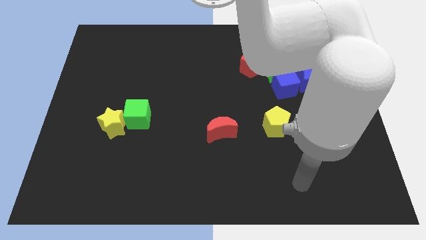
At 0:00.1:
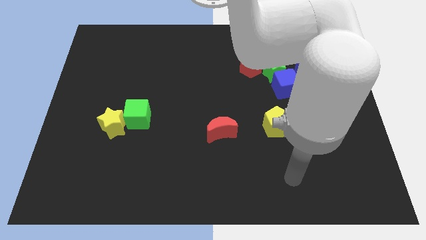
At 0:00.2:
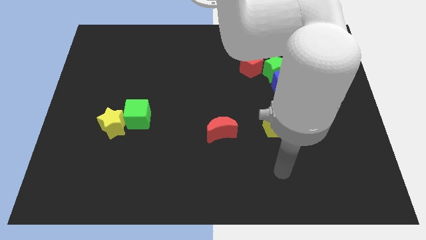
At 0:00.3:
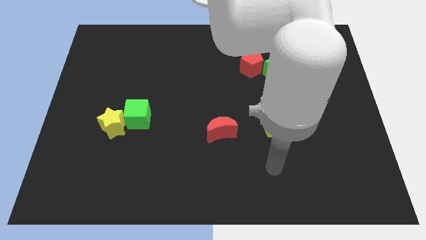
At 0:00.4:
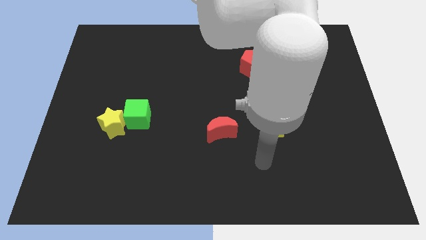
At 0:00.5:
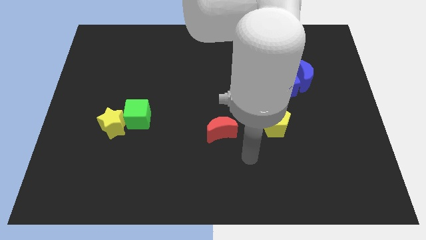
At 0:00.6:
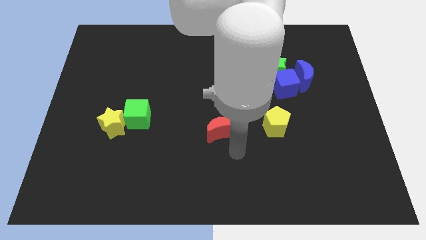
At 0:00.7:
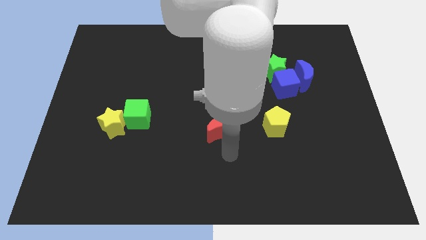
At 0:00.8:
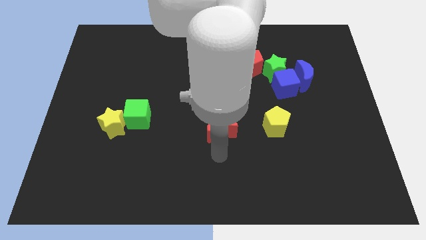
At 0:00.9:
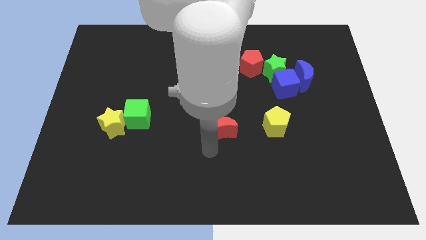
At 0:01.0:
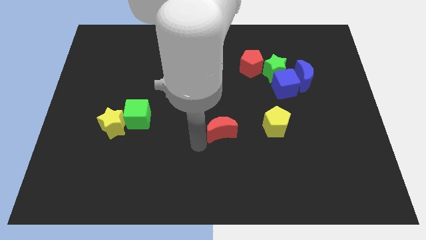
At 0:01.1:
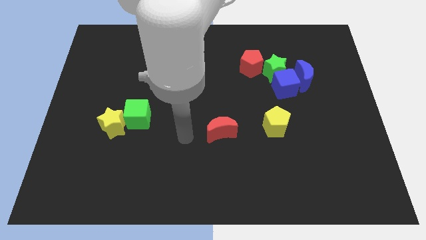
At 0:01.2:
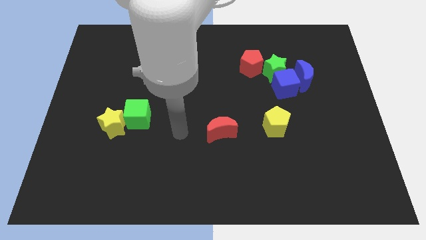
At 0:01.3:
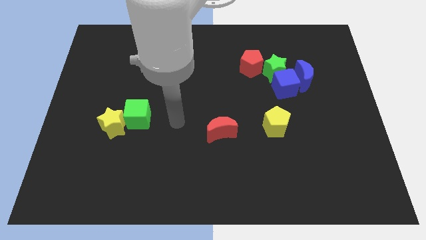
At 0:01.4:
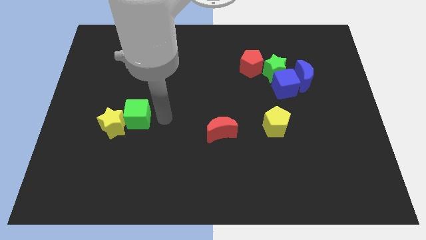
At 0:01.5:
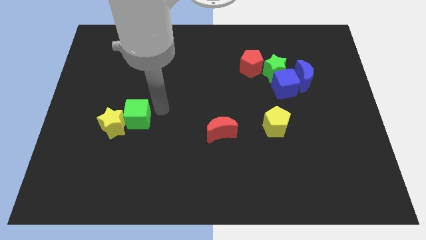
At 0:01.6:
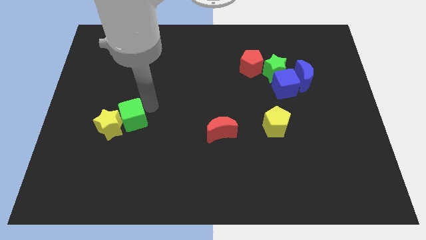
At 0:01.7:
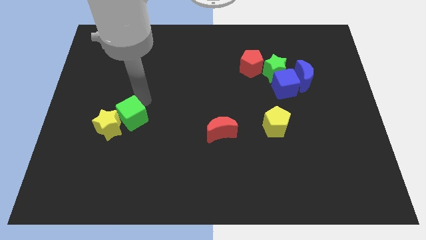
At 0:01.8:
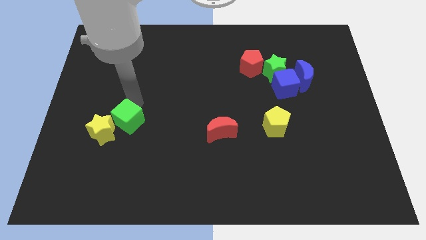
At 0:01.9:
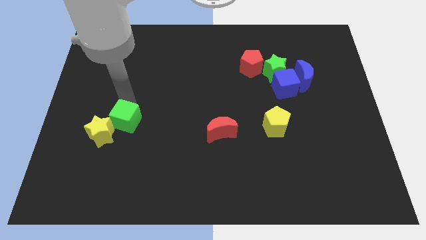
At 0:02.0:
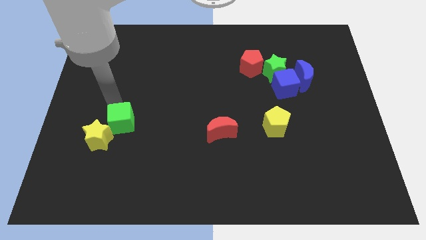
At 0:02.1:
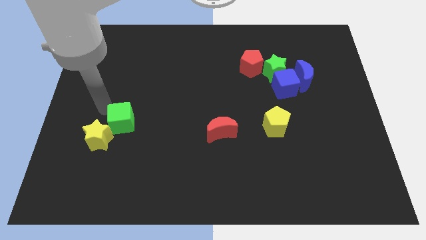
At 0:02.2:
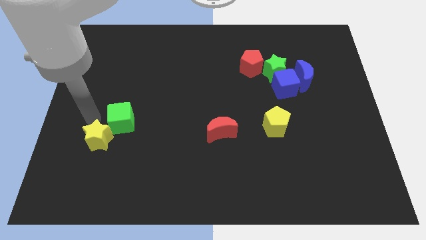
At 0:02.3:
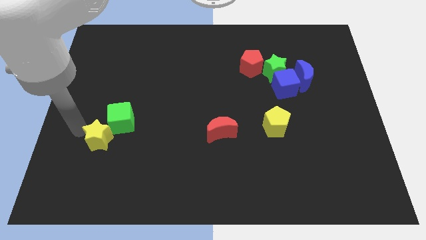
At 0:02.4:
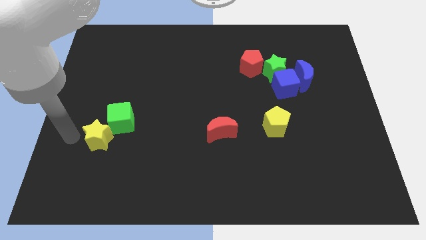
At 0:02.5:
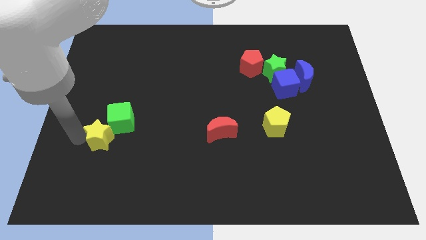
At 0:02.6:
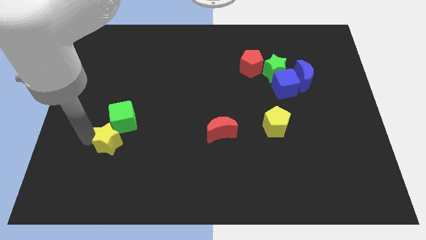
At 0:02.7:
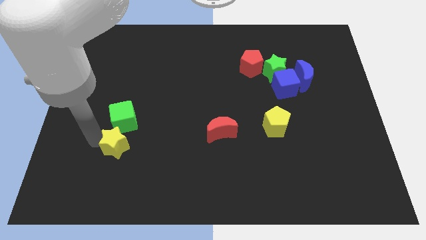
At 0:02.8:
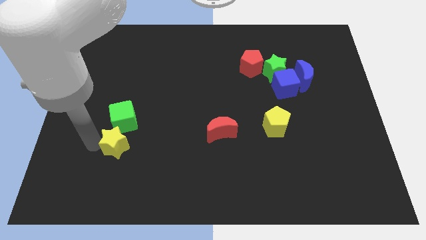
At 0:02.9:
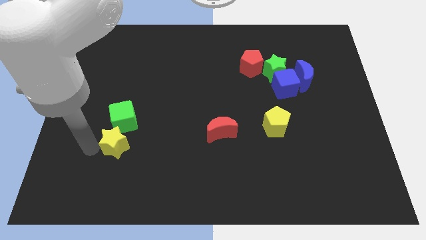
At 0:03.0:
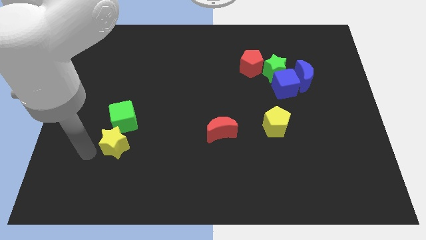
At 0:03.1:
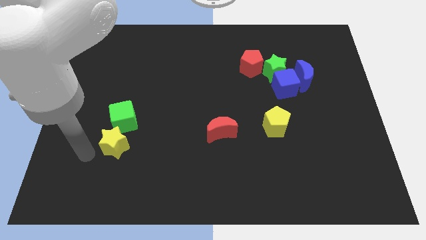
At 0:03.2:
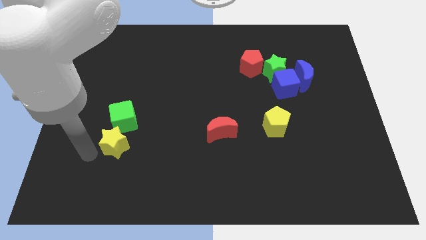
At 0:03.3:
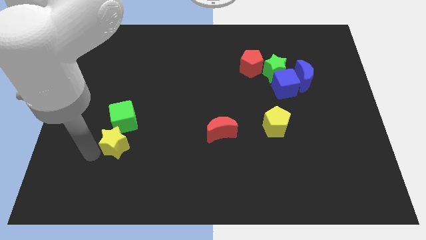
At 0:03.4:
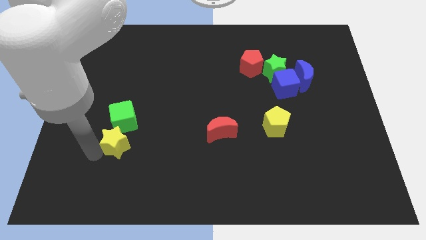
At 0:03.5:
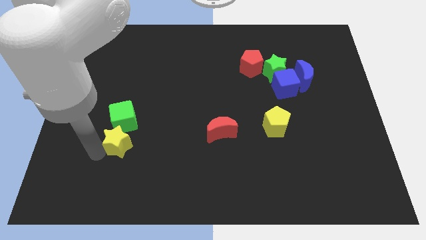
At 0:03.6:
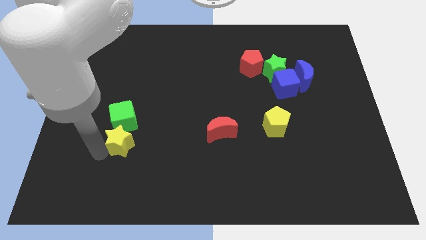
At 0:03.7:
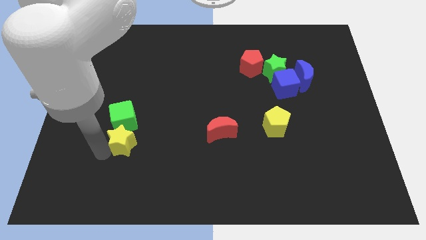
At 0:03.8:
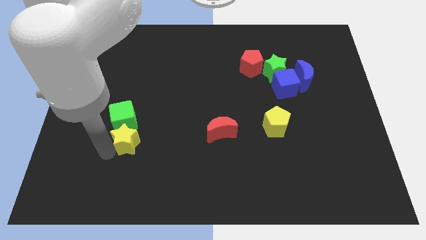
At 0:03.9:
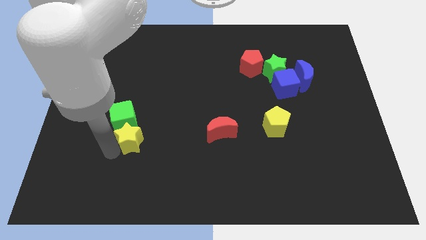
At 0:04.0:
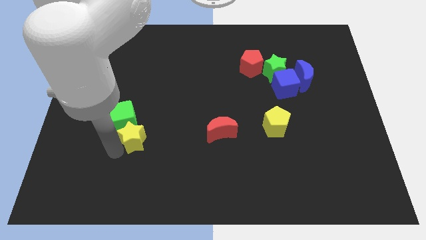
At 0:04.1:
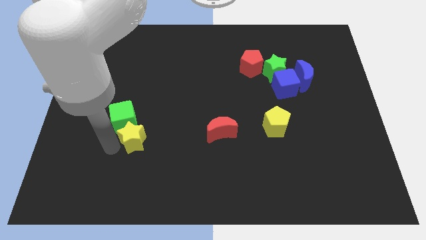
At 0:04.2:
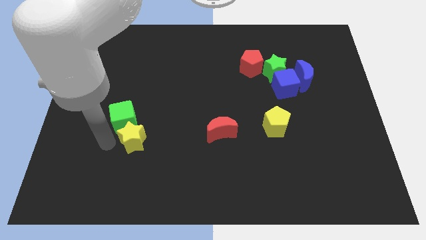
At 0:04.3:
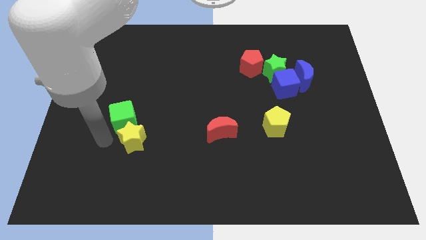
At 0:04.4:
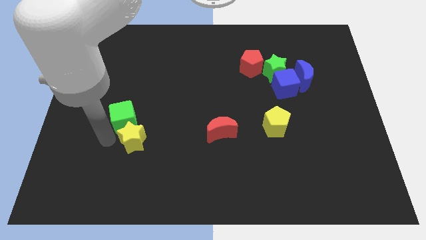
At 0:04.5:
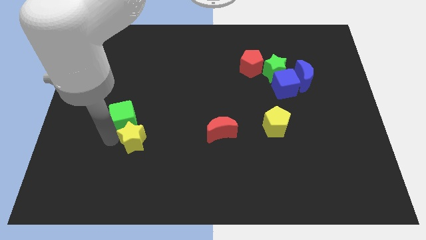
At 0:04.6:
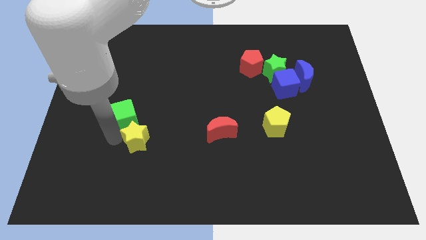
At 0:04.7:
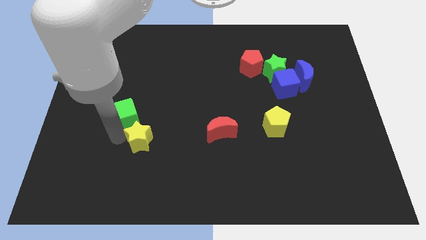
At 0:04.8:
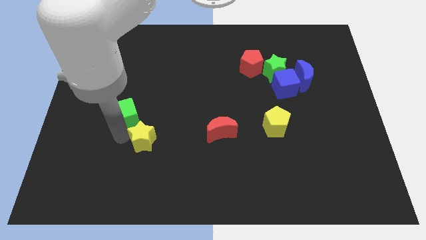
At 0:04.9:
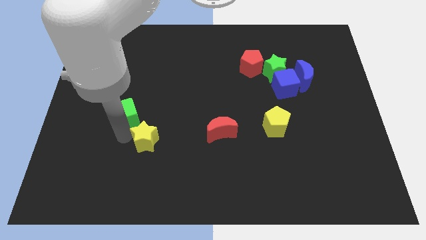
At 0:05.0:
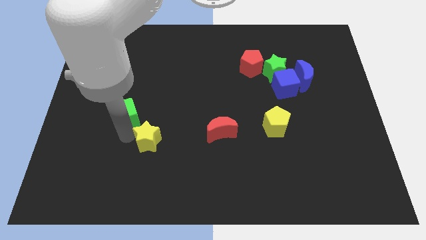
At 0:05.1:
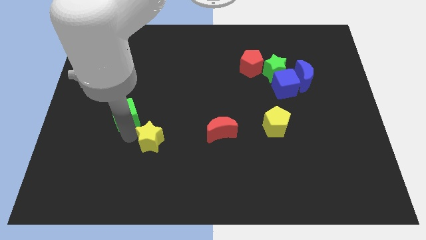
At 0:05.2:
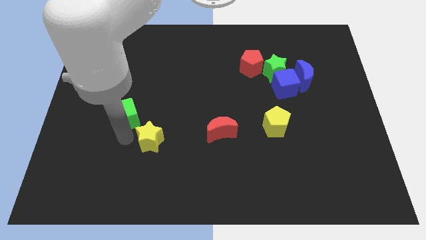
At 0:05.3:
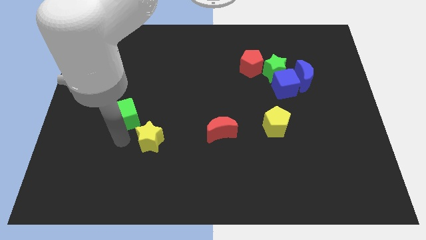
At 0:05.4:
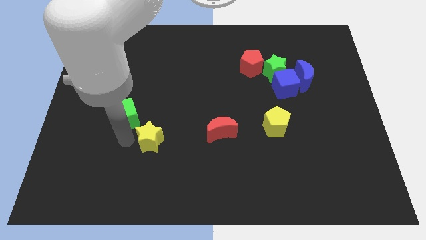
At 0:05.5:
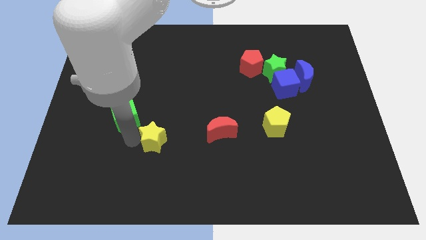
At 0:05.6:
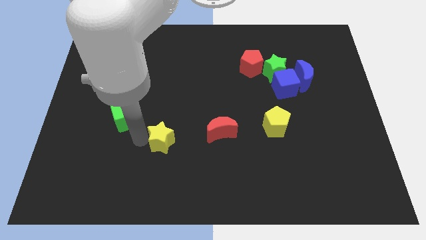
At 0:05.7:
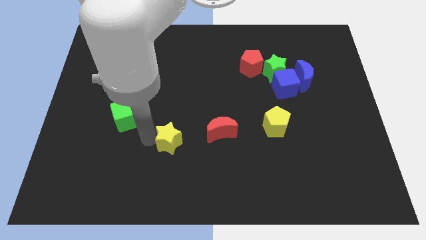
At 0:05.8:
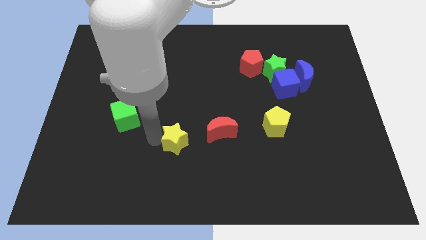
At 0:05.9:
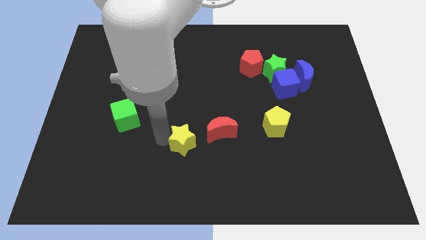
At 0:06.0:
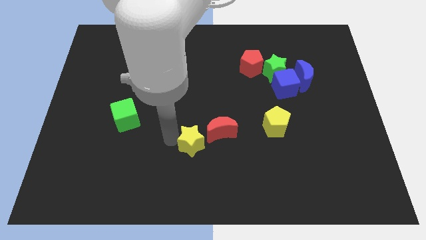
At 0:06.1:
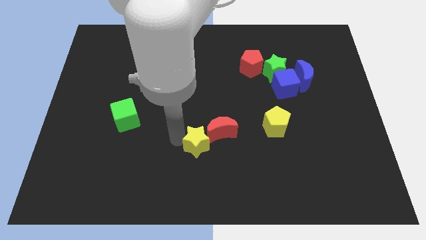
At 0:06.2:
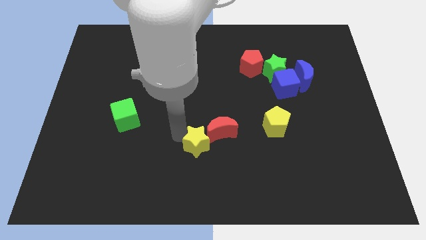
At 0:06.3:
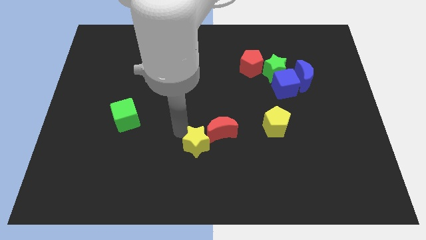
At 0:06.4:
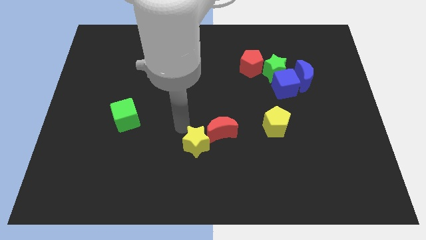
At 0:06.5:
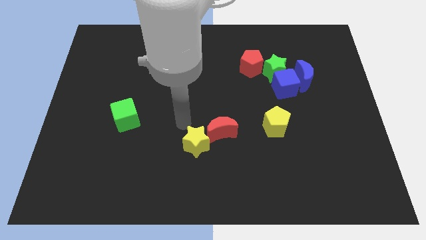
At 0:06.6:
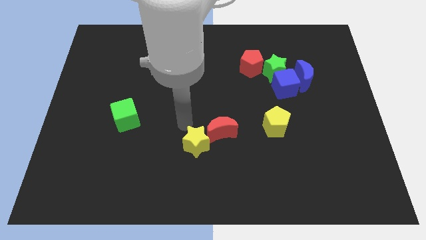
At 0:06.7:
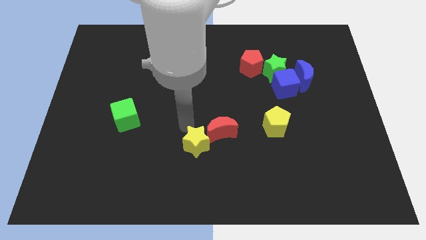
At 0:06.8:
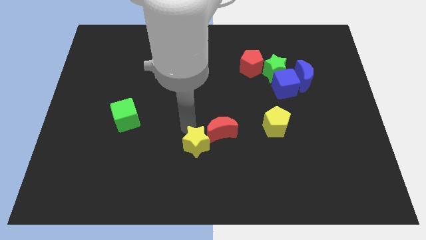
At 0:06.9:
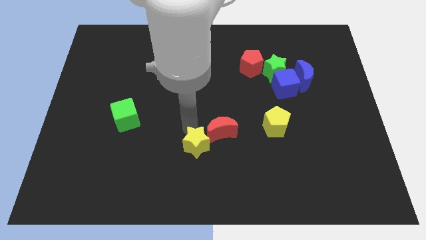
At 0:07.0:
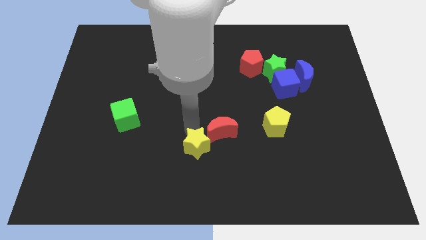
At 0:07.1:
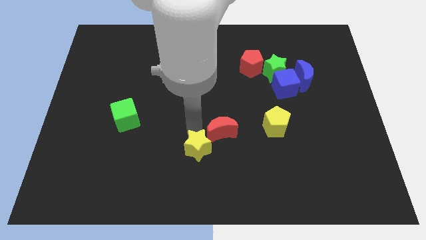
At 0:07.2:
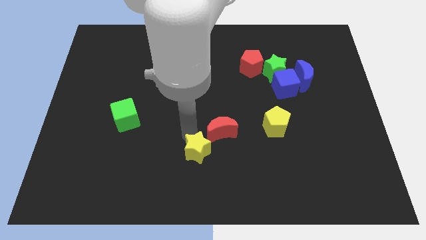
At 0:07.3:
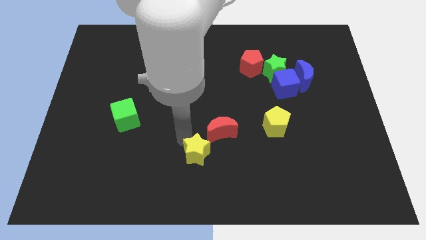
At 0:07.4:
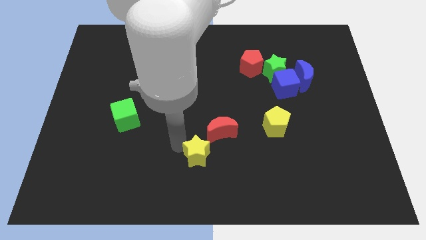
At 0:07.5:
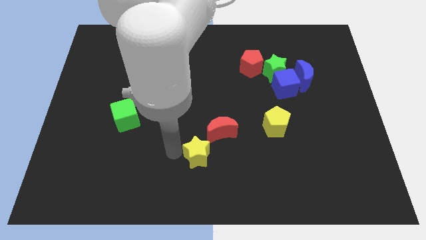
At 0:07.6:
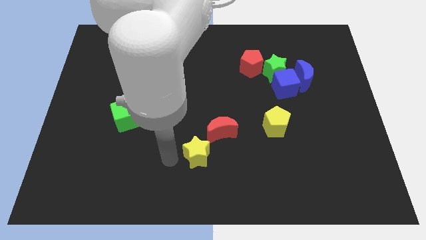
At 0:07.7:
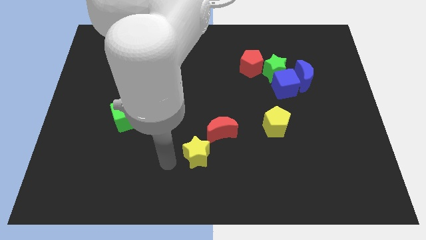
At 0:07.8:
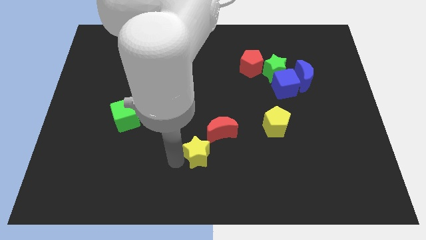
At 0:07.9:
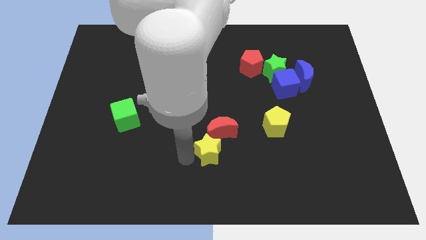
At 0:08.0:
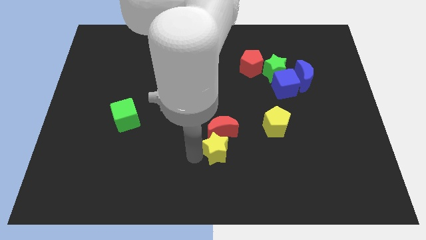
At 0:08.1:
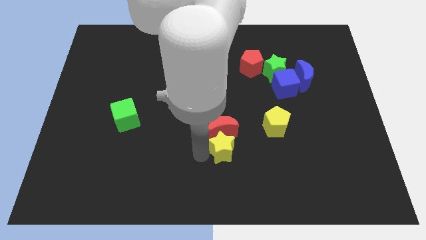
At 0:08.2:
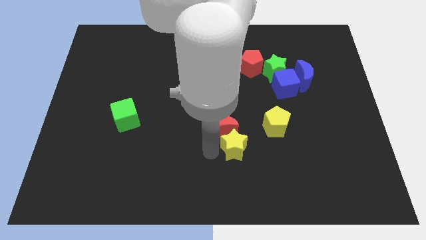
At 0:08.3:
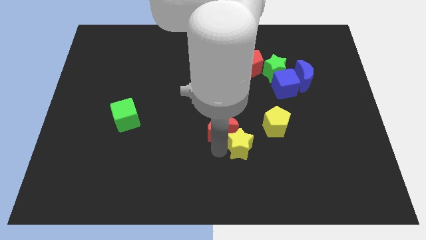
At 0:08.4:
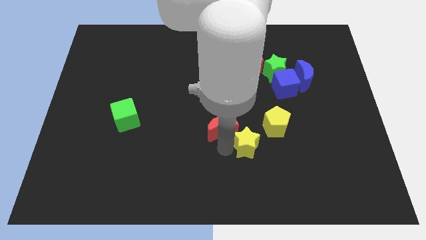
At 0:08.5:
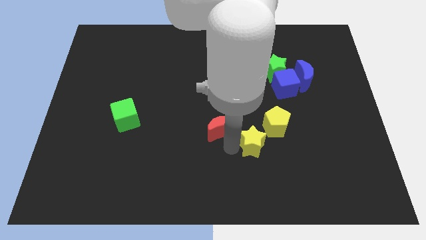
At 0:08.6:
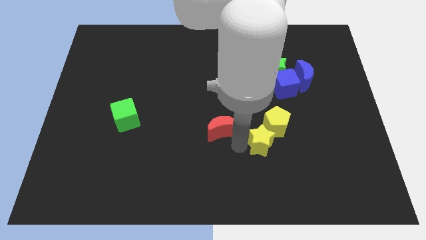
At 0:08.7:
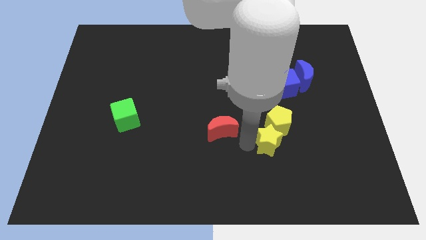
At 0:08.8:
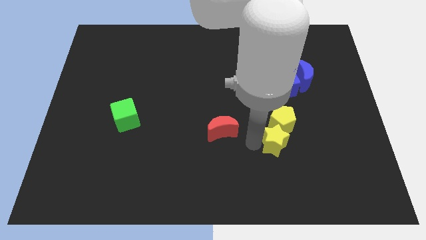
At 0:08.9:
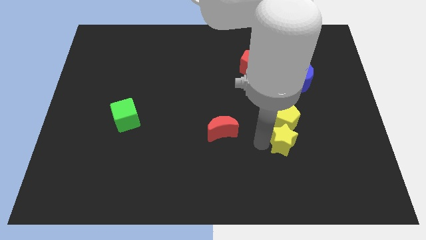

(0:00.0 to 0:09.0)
move the yellow star to the bottom right of the yellow pentagon
